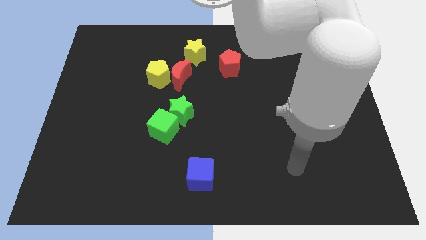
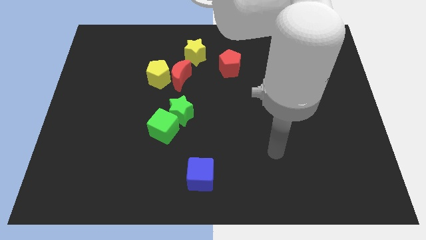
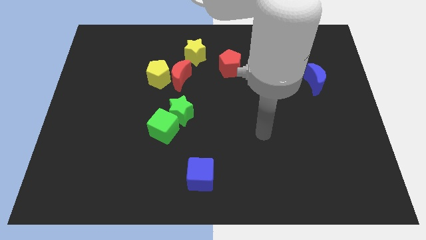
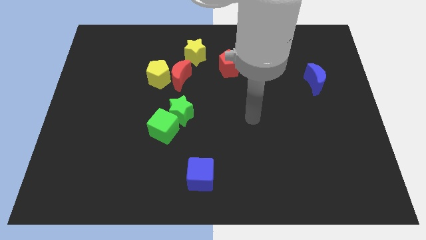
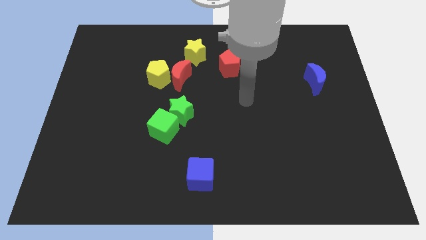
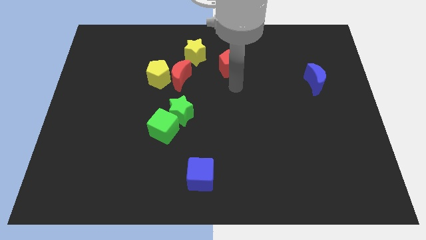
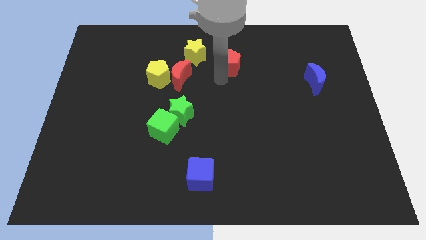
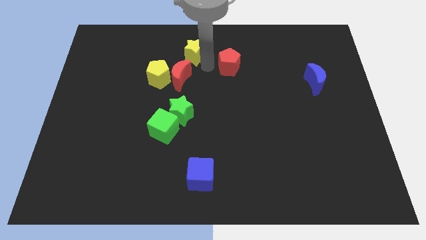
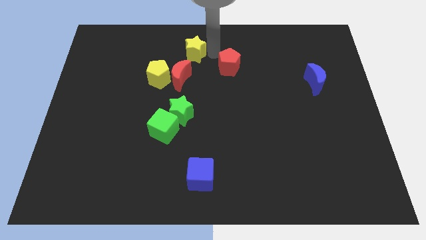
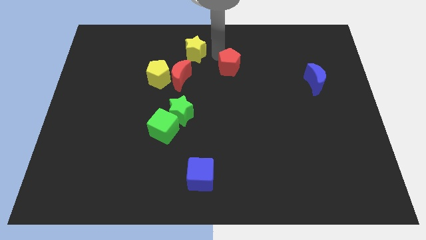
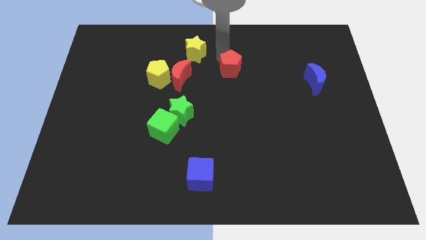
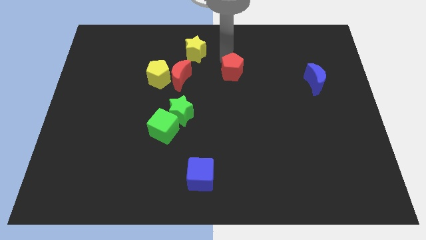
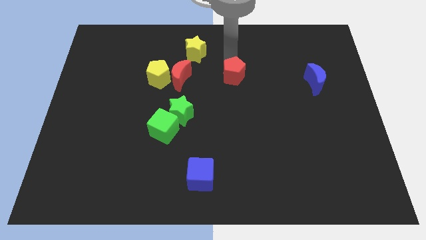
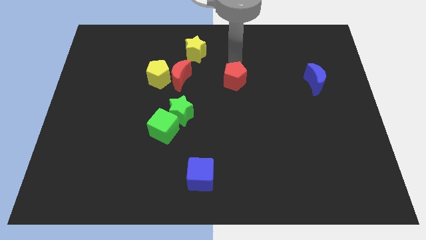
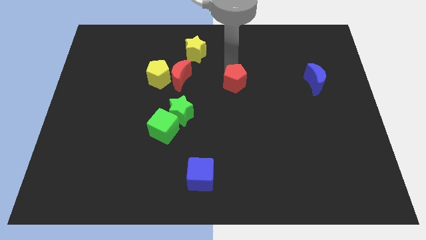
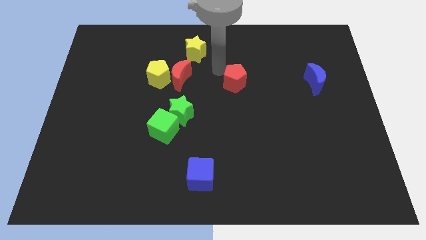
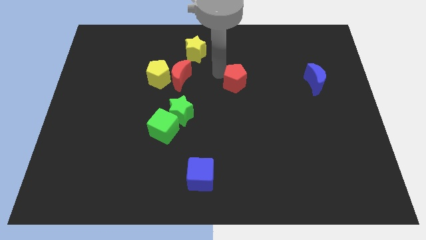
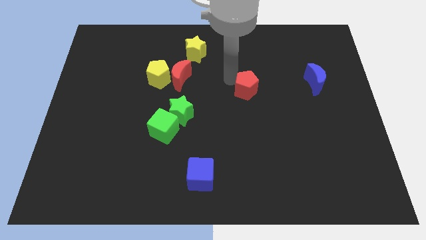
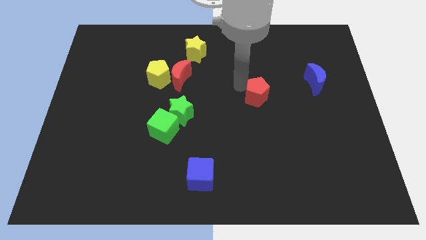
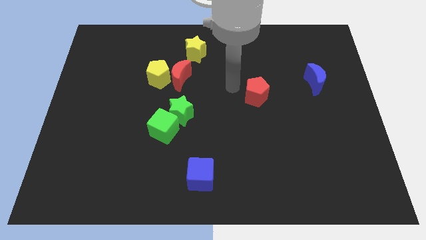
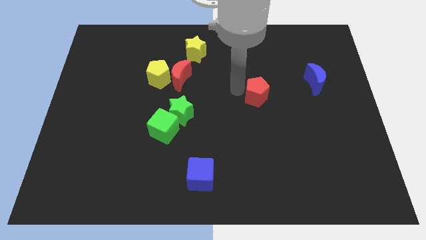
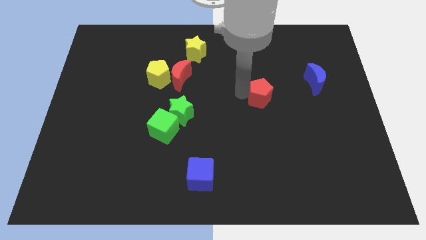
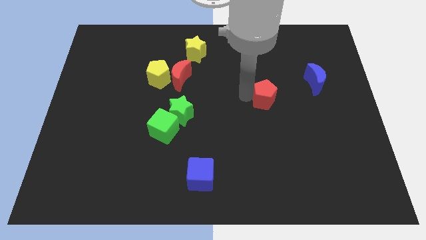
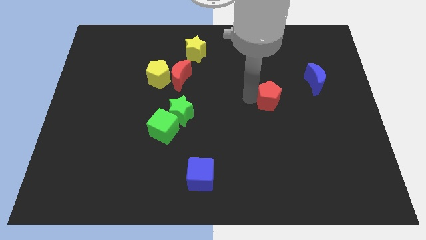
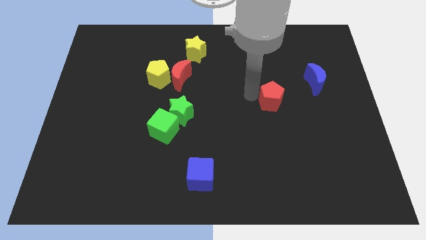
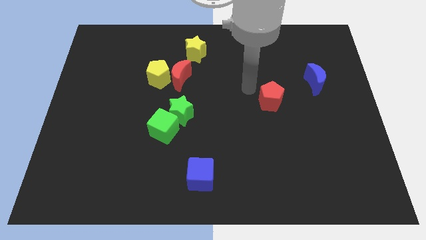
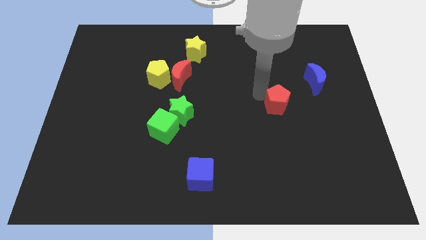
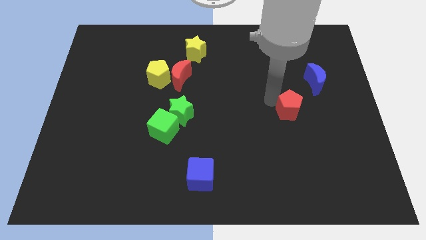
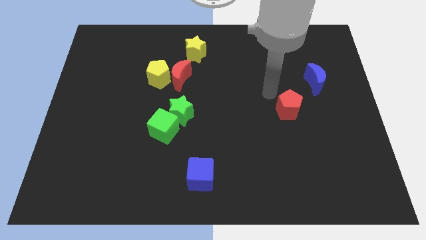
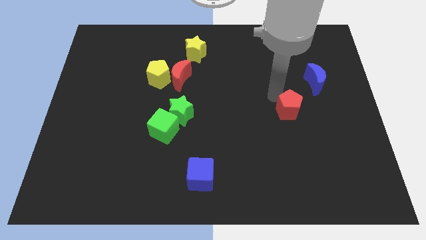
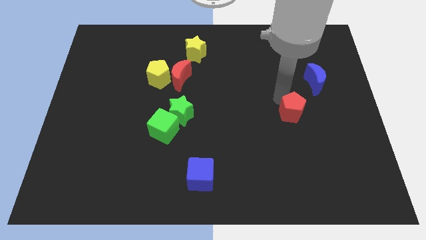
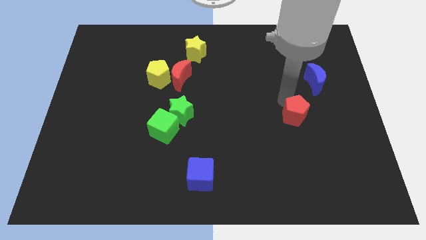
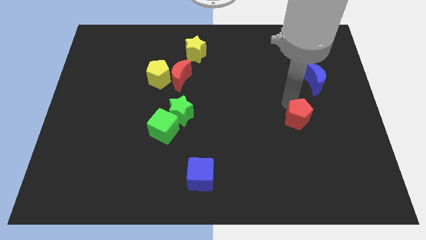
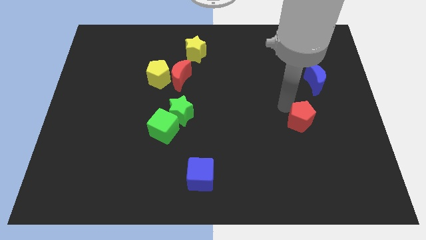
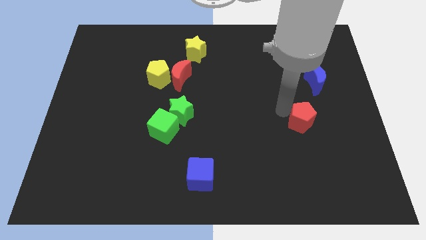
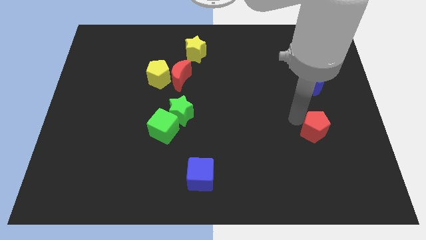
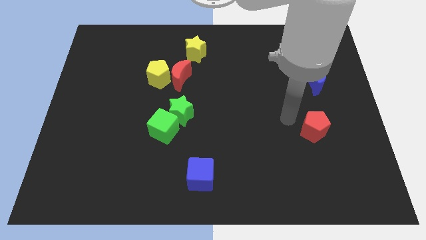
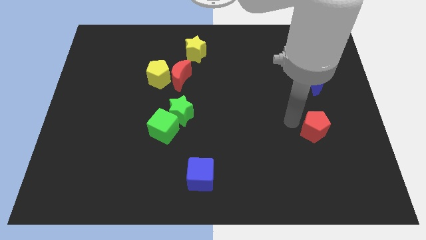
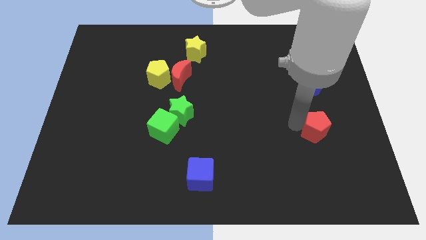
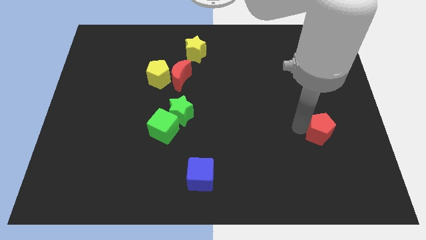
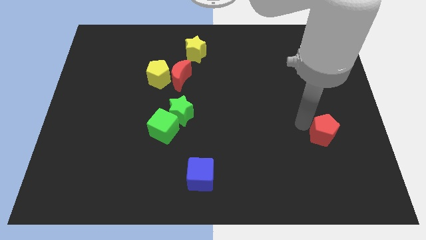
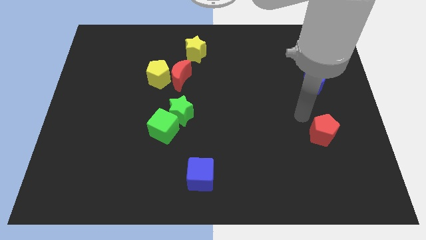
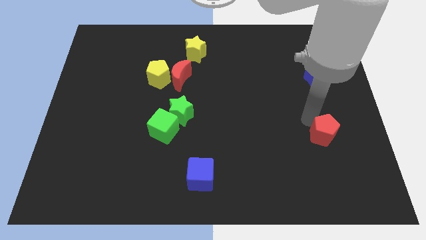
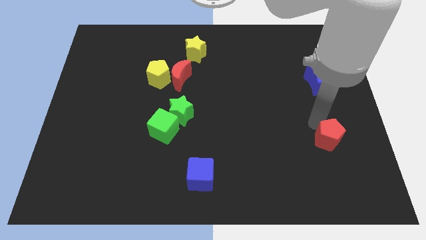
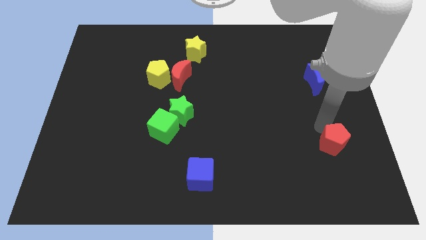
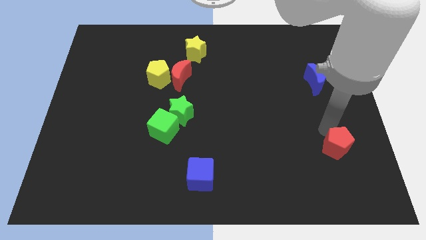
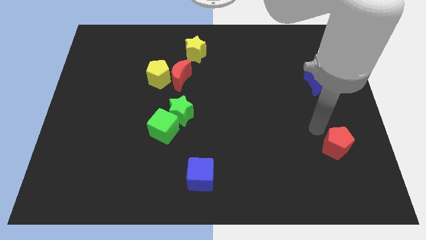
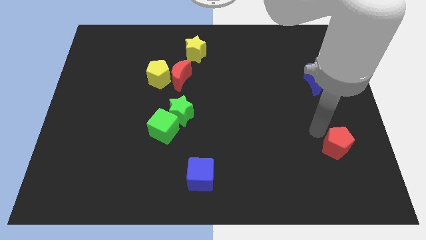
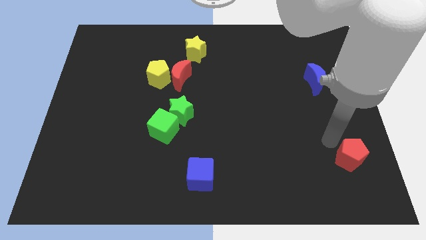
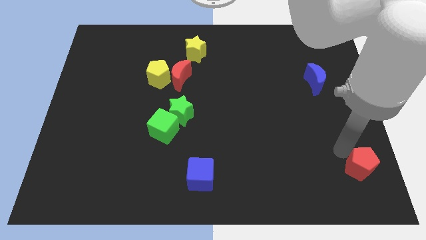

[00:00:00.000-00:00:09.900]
move the red pentagon to the bottom right of the board

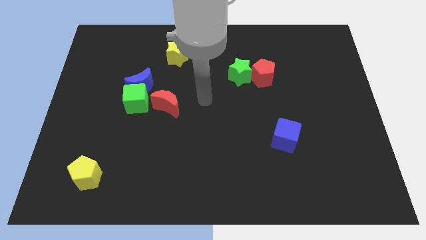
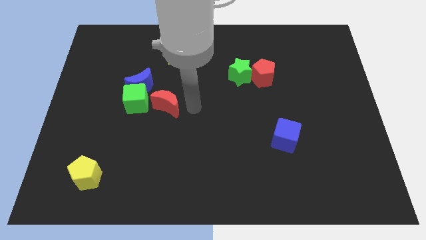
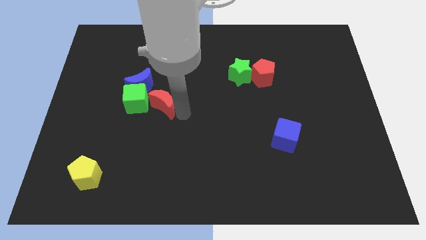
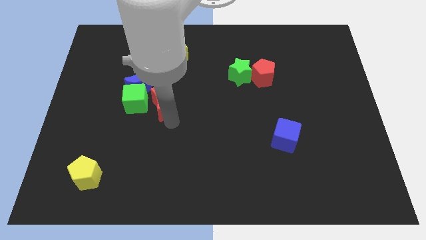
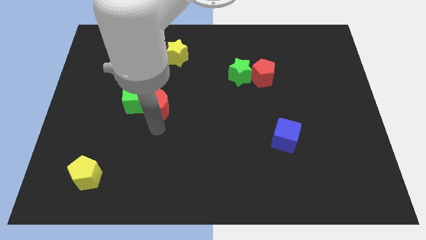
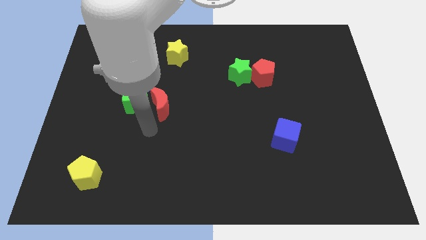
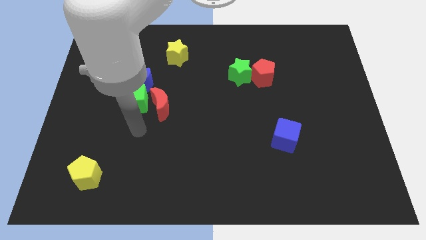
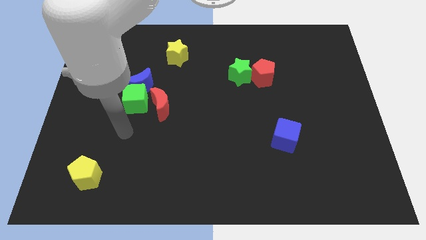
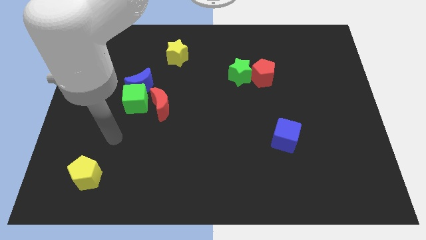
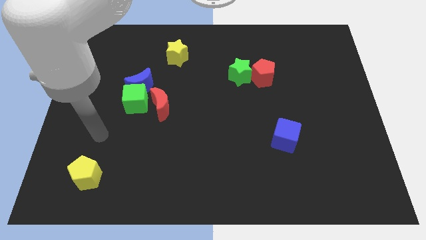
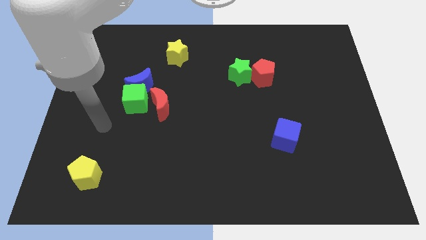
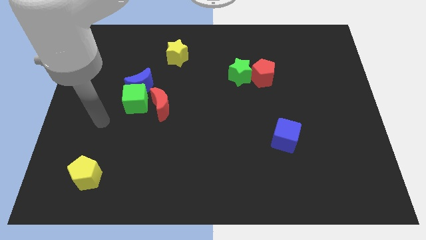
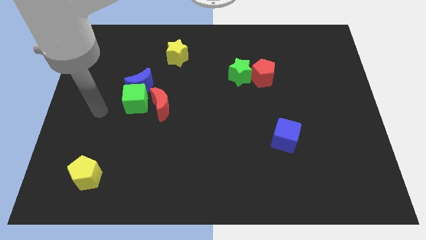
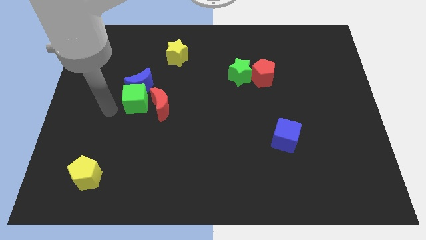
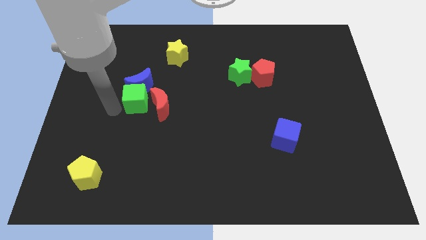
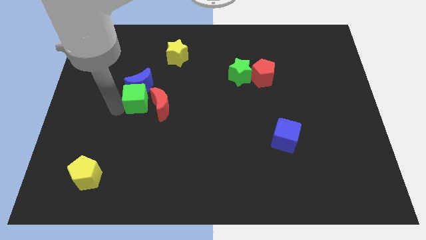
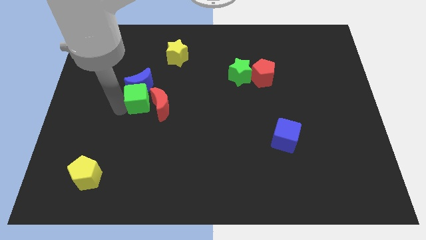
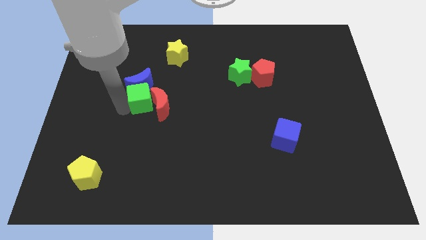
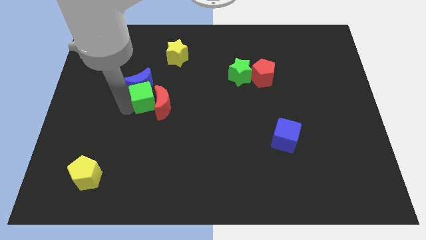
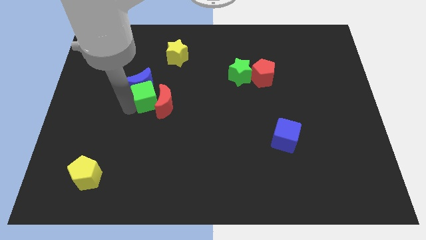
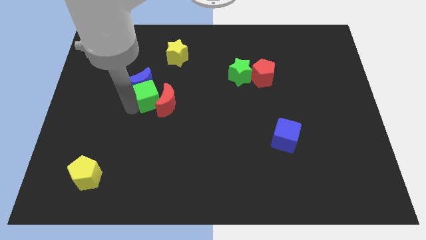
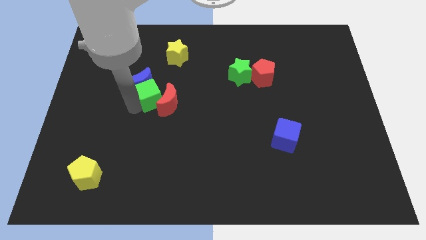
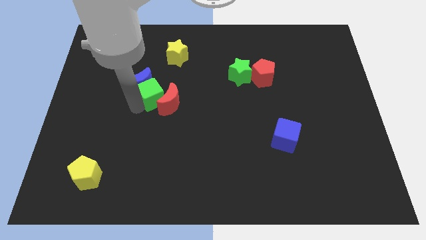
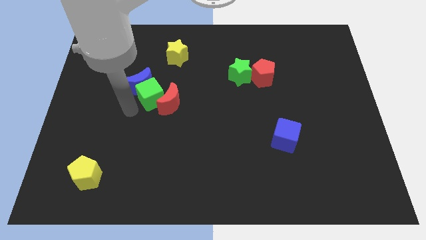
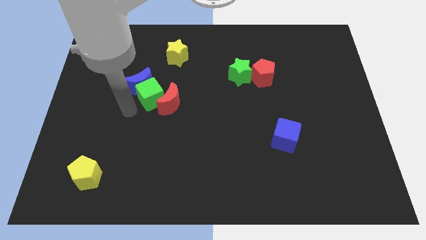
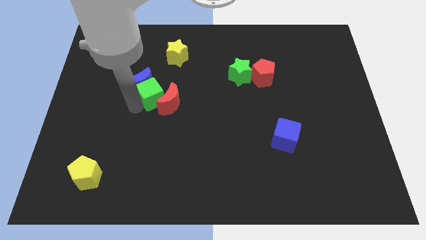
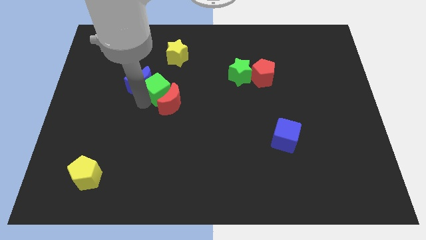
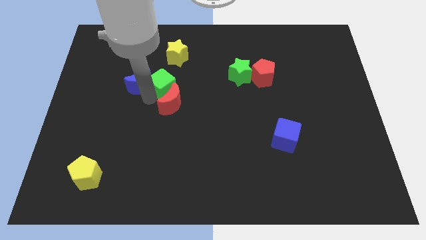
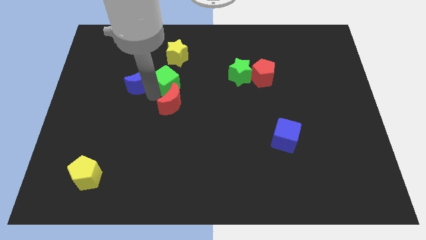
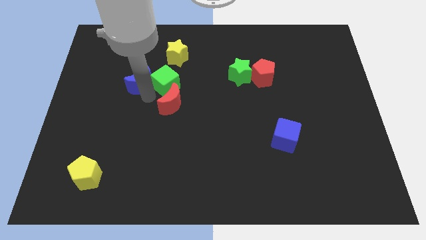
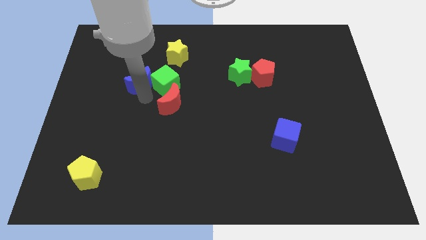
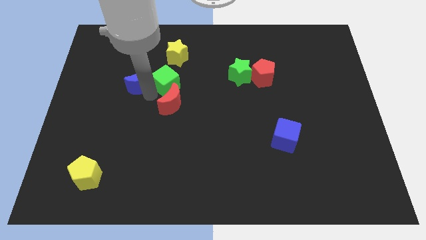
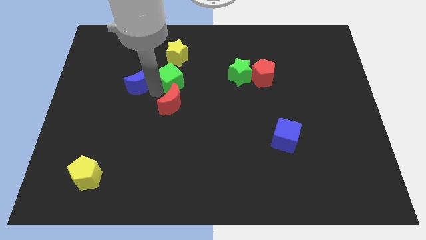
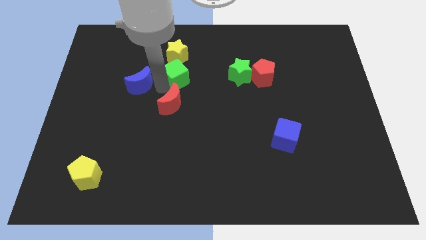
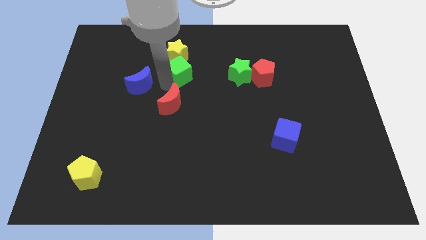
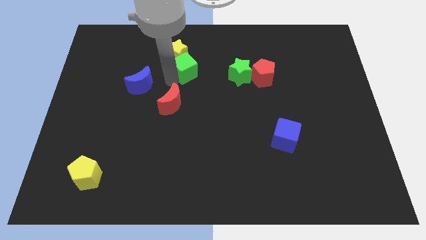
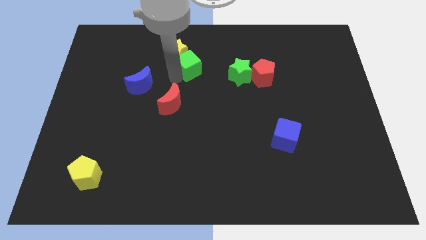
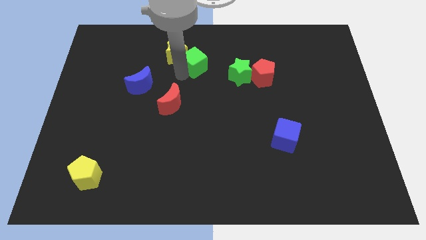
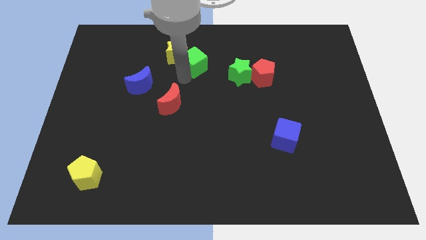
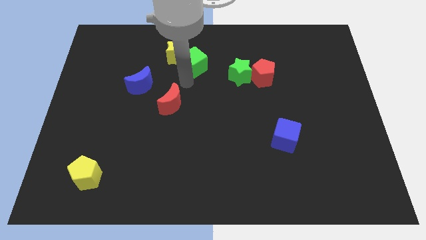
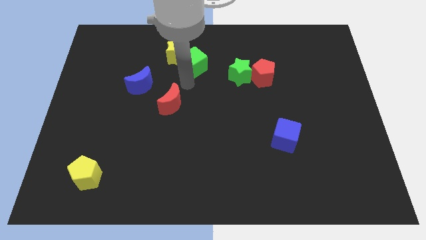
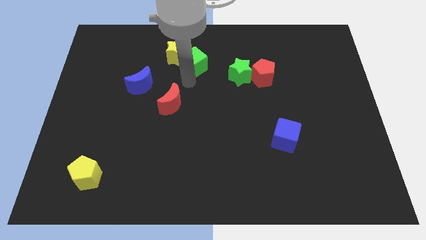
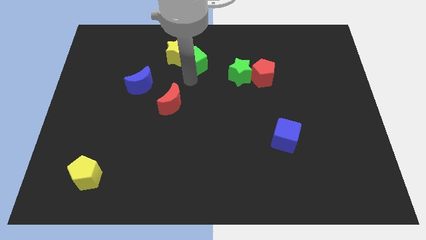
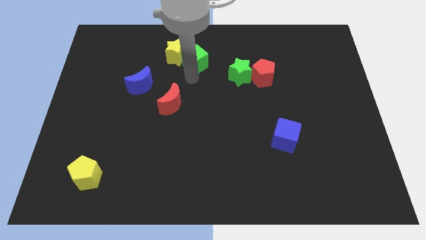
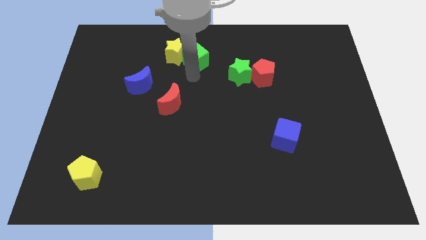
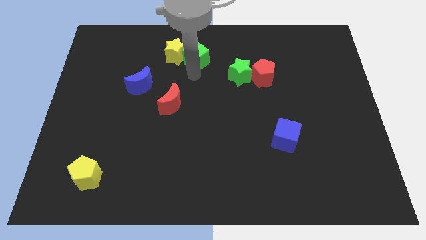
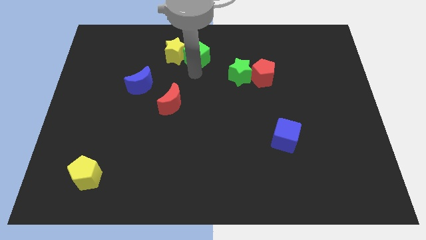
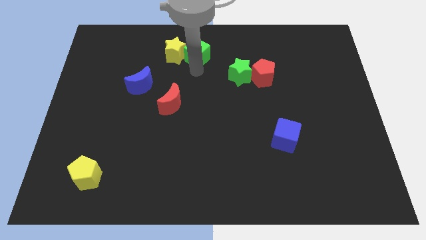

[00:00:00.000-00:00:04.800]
push the green cube to the top side
